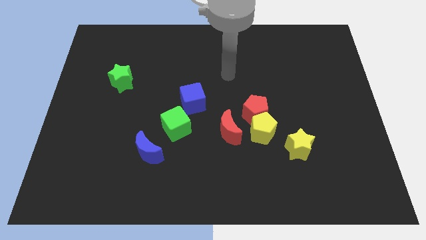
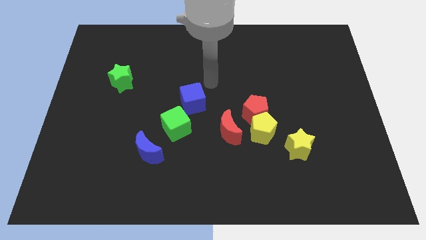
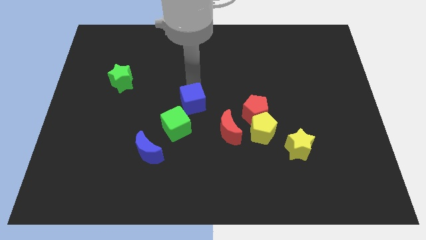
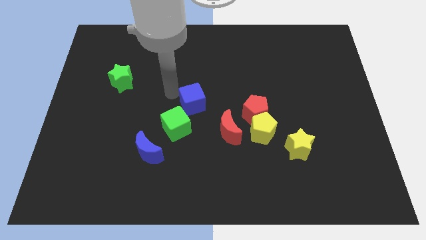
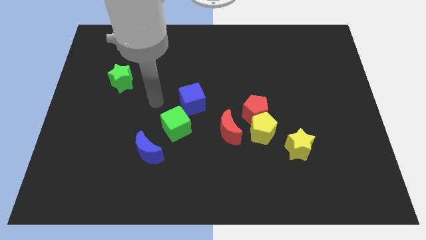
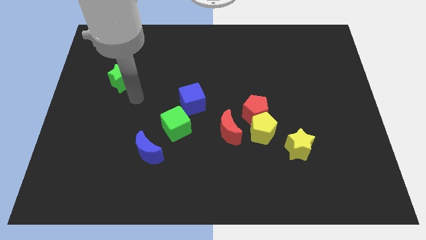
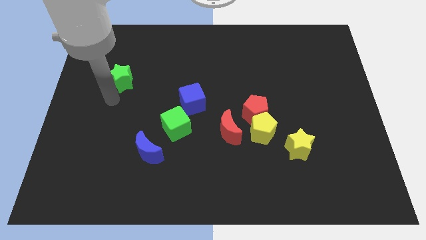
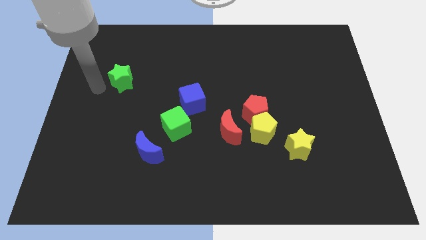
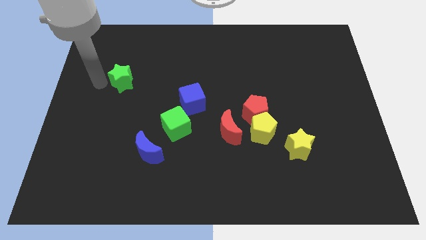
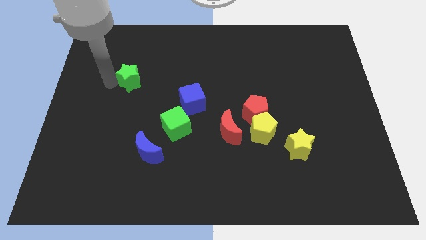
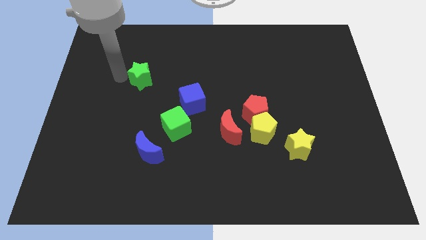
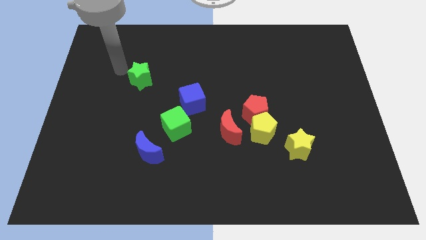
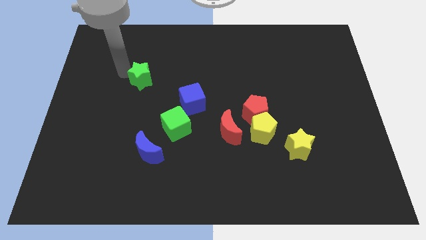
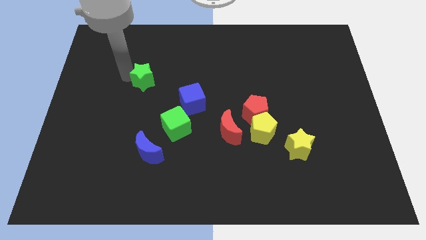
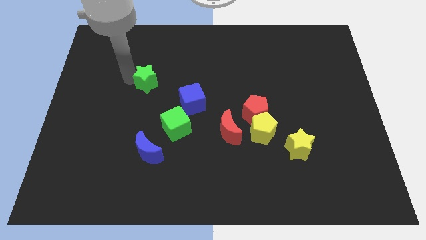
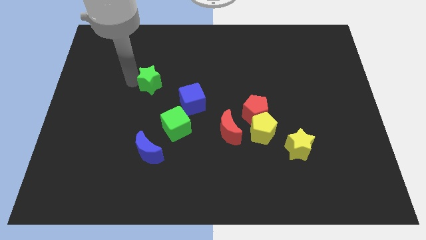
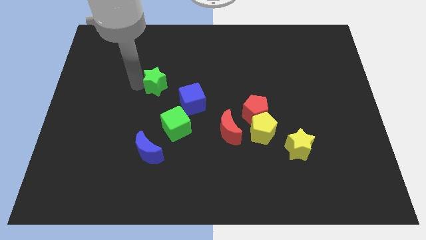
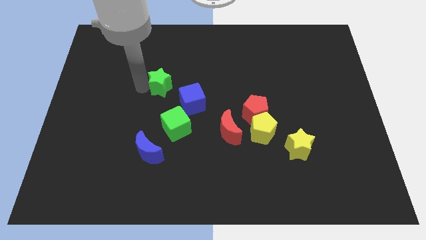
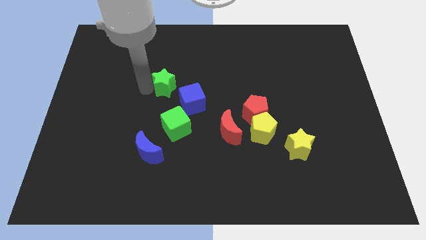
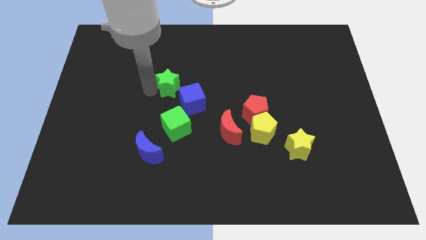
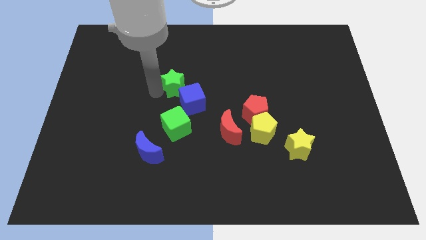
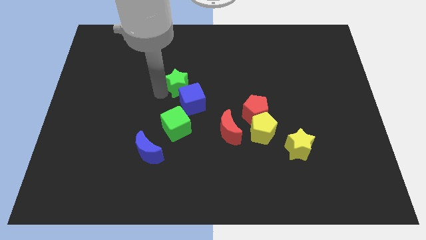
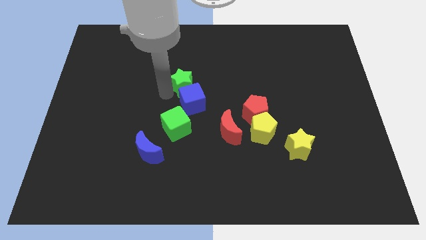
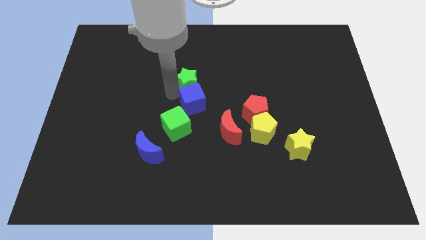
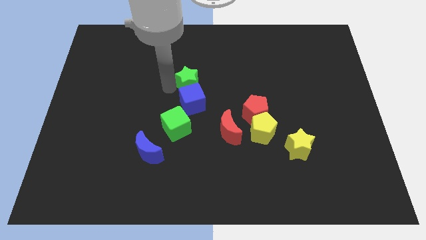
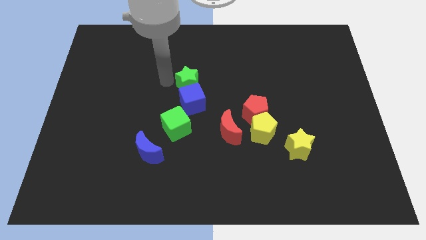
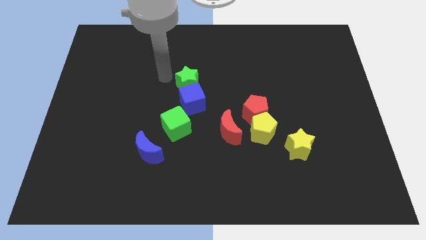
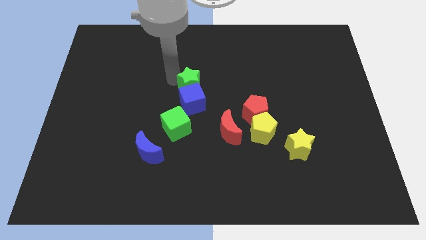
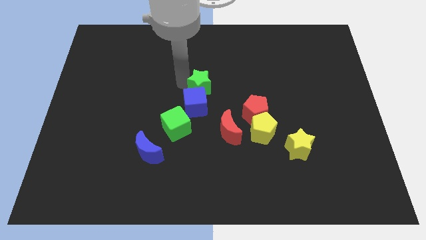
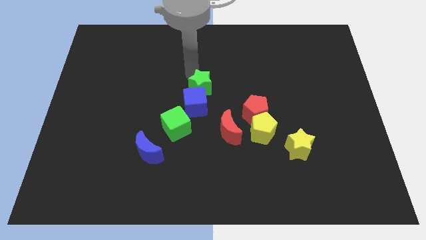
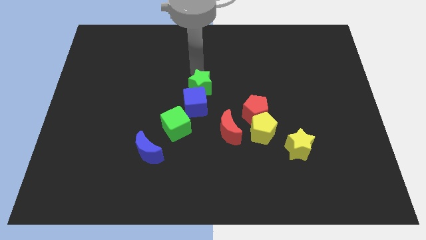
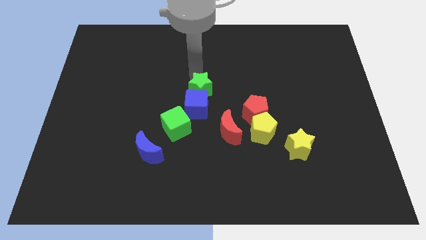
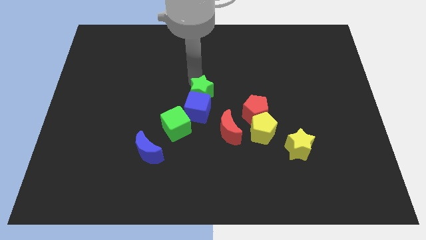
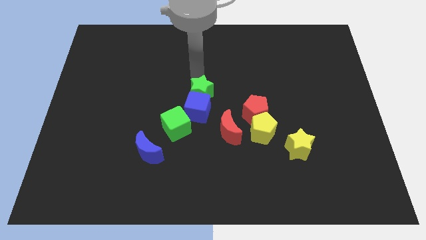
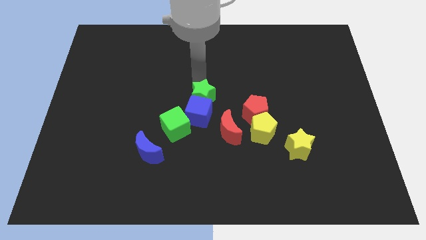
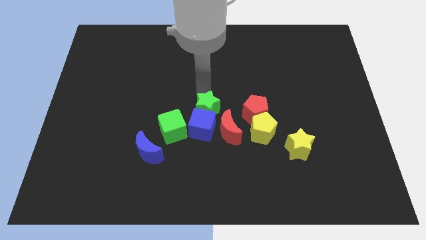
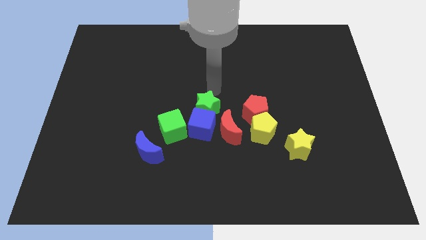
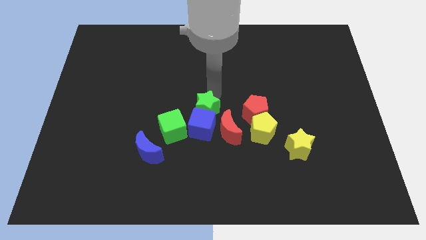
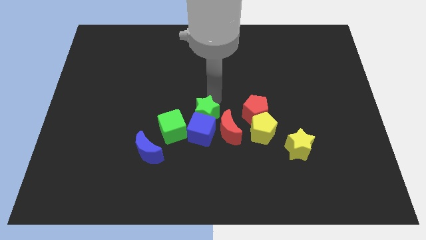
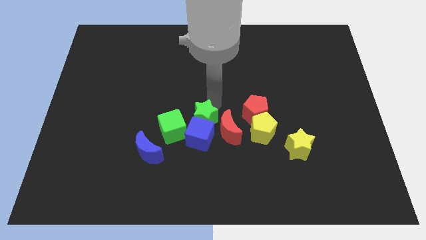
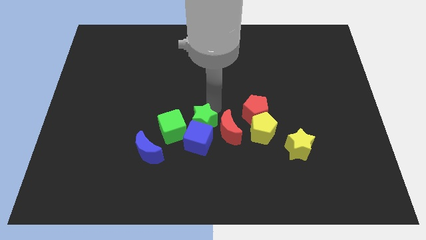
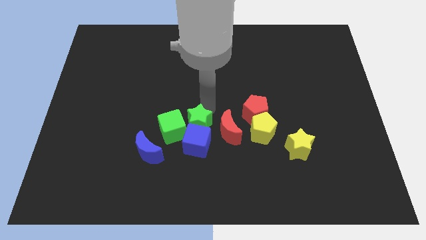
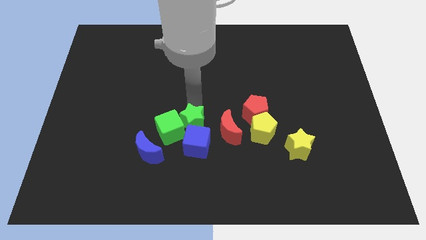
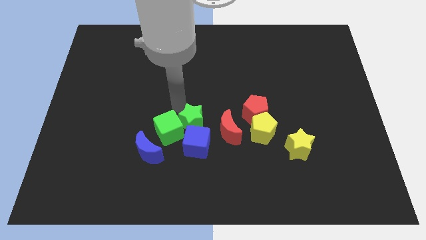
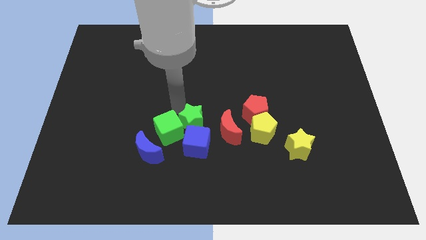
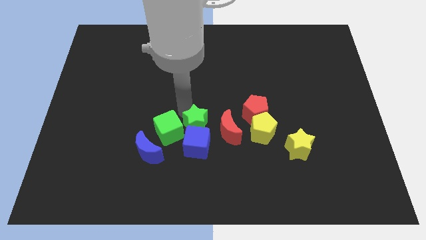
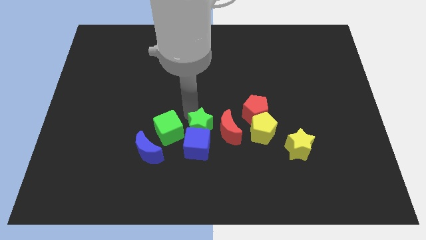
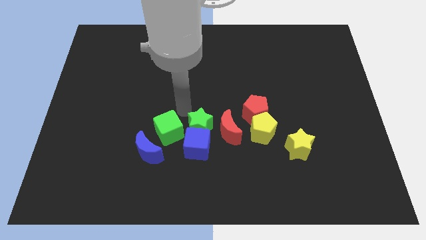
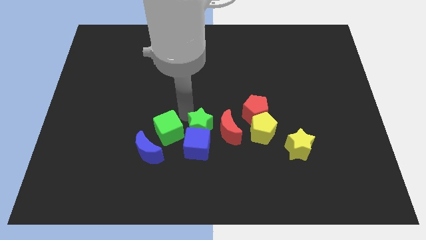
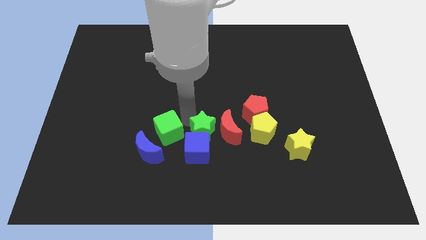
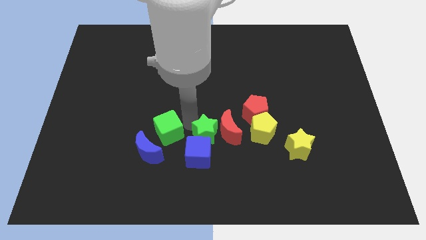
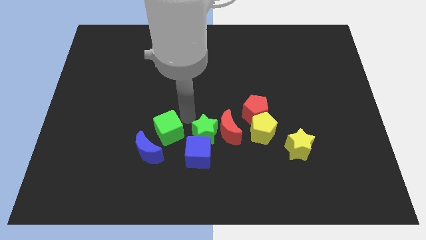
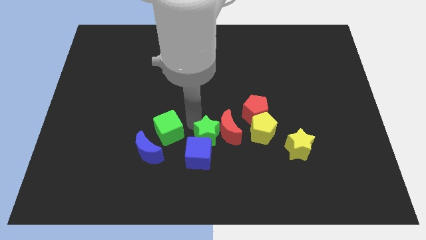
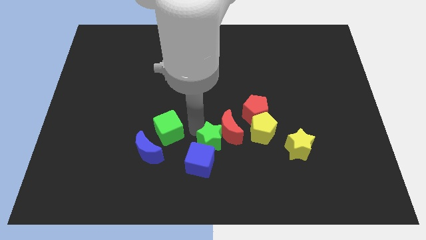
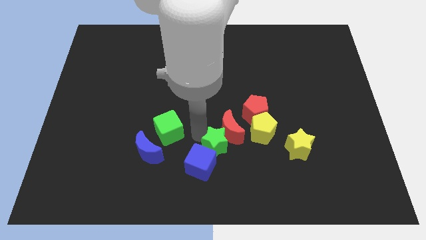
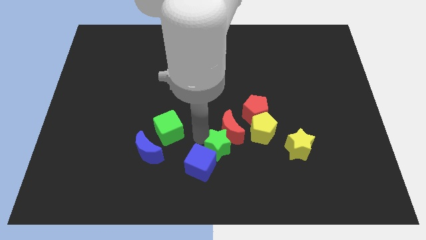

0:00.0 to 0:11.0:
put the green star to the bottom left of the yellow pentagon
